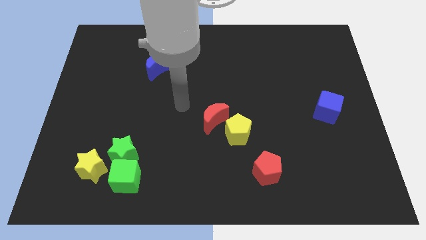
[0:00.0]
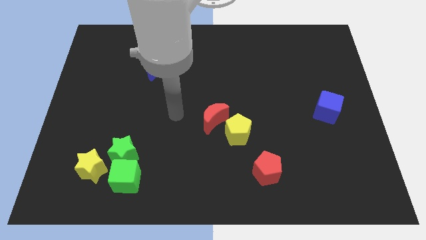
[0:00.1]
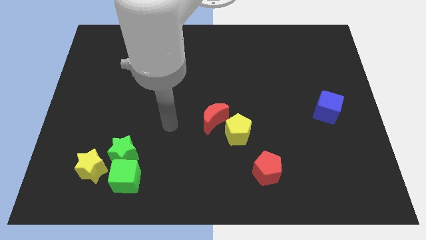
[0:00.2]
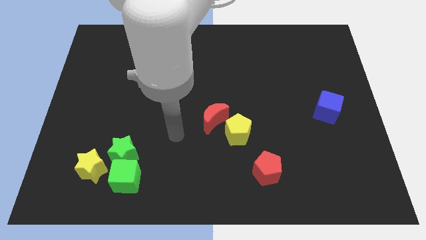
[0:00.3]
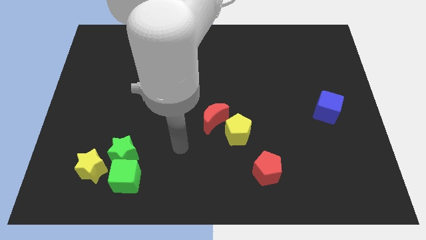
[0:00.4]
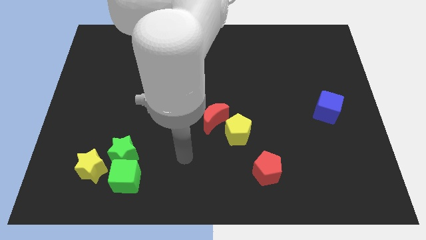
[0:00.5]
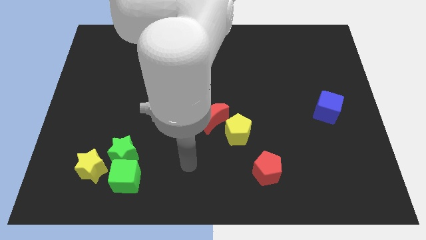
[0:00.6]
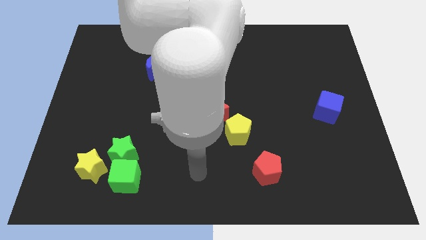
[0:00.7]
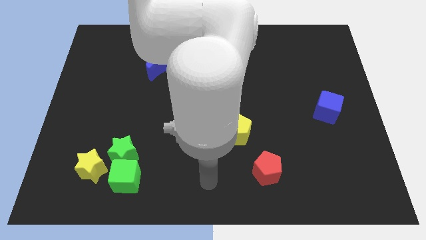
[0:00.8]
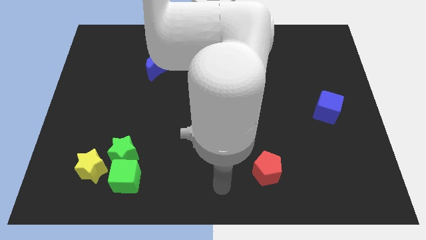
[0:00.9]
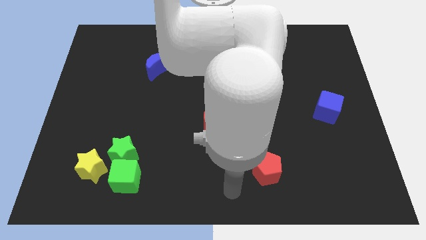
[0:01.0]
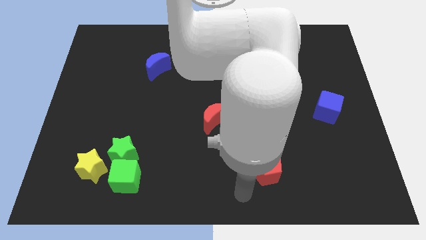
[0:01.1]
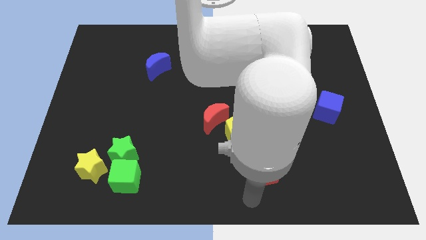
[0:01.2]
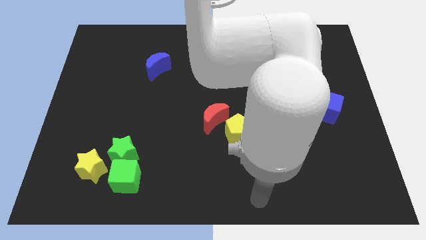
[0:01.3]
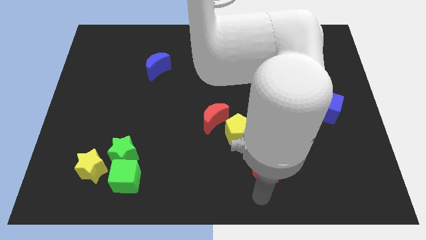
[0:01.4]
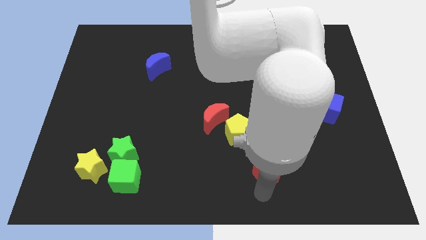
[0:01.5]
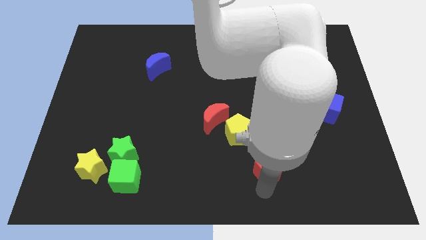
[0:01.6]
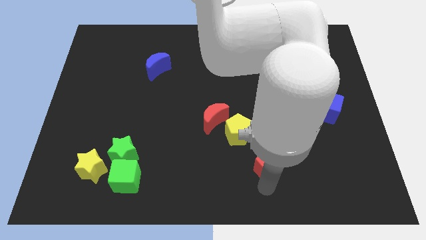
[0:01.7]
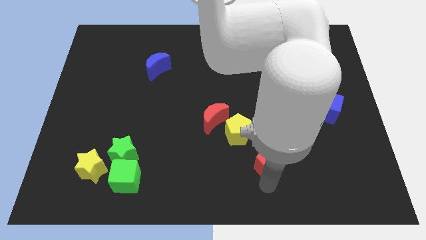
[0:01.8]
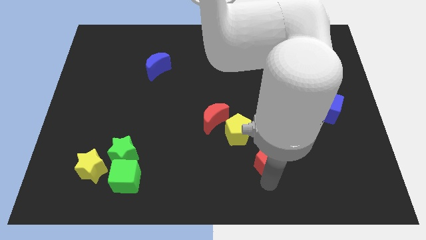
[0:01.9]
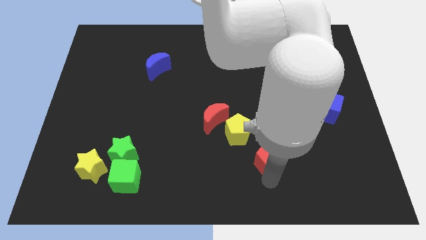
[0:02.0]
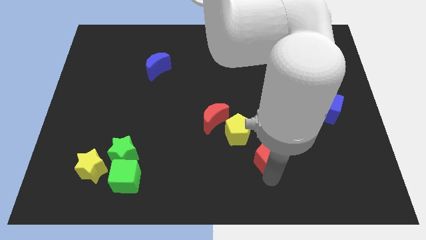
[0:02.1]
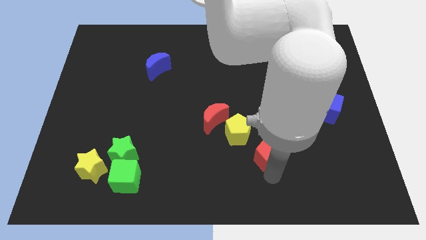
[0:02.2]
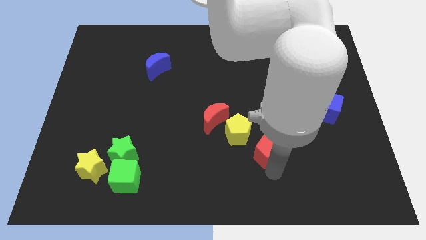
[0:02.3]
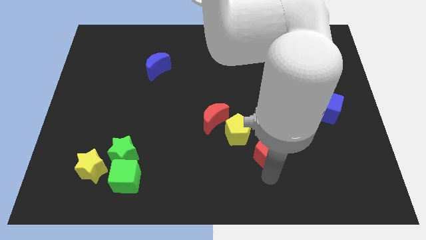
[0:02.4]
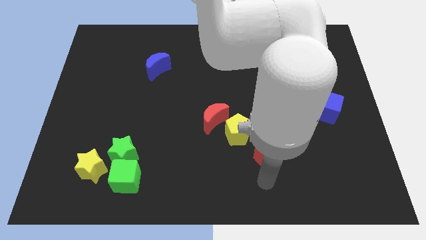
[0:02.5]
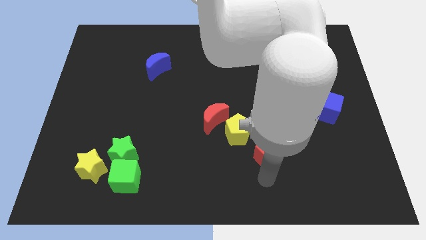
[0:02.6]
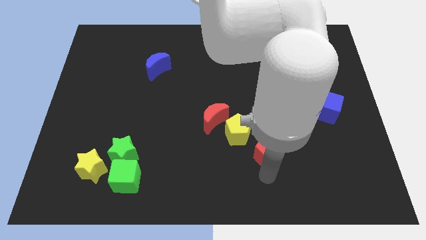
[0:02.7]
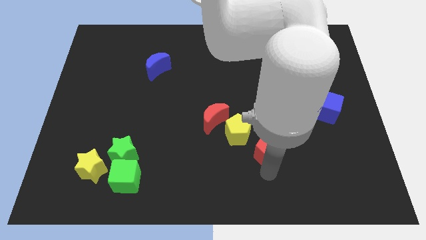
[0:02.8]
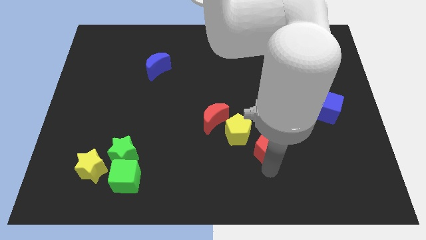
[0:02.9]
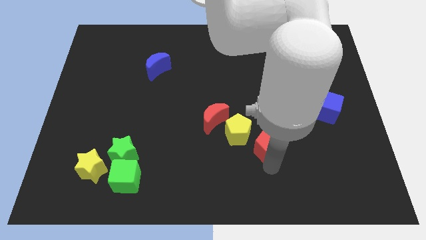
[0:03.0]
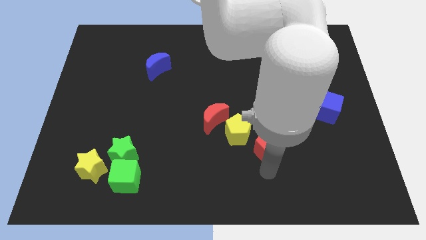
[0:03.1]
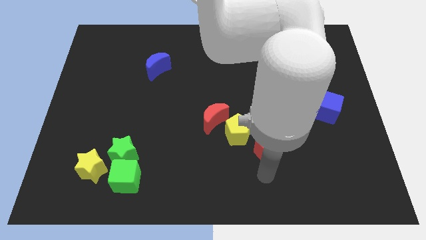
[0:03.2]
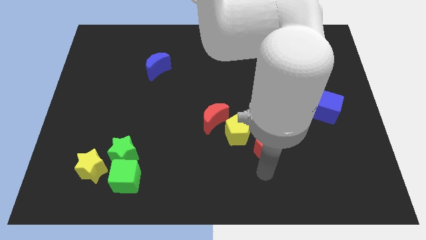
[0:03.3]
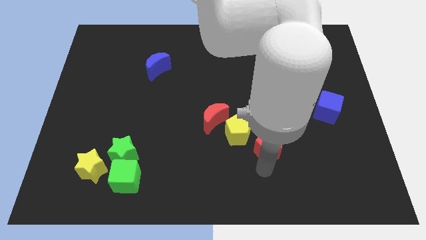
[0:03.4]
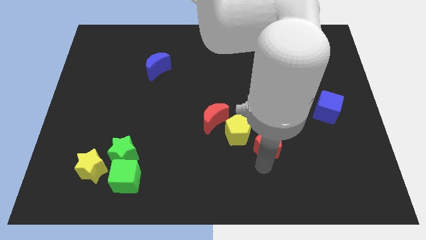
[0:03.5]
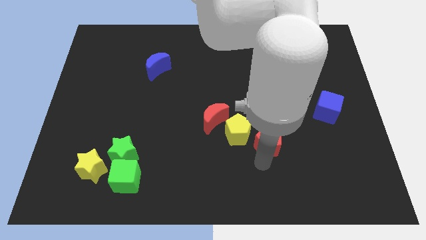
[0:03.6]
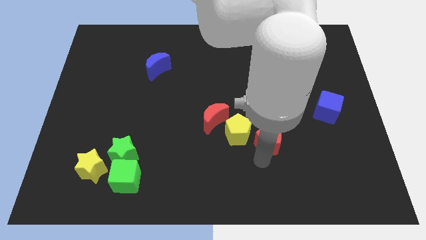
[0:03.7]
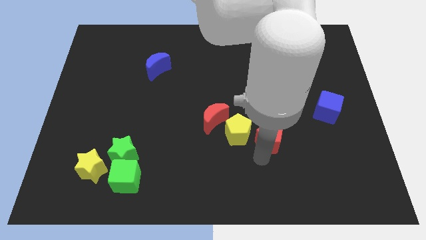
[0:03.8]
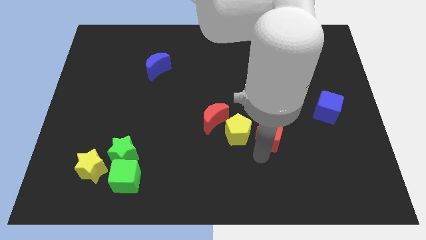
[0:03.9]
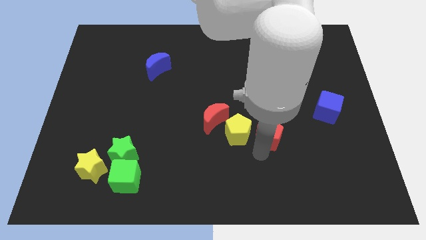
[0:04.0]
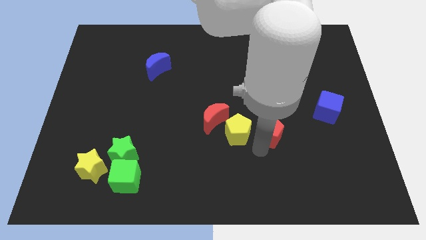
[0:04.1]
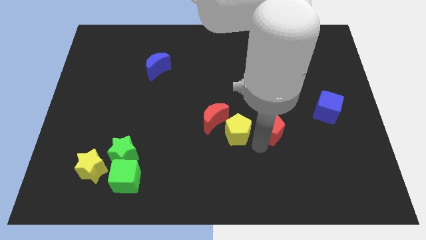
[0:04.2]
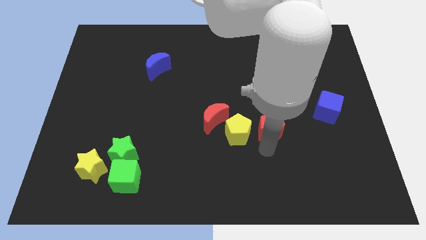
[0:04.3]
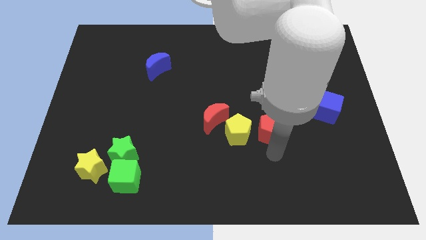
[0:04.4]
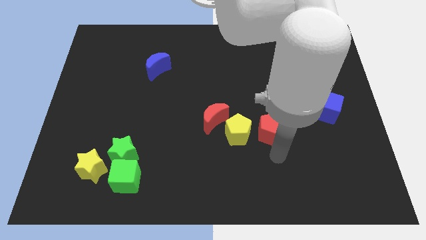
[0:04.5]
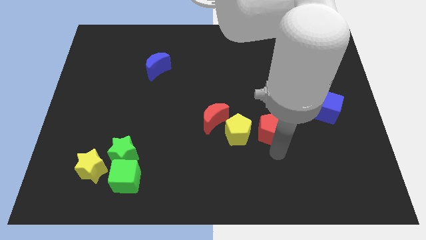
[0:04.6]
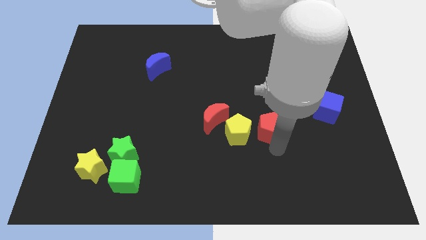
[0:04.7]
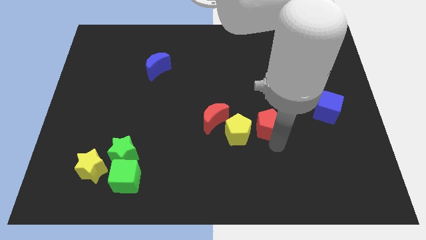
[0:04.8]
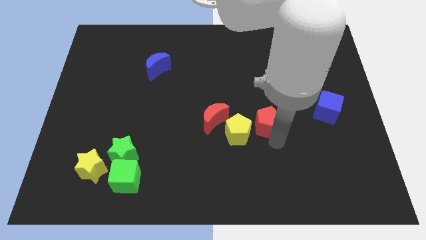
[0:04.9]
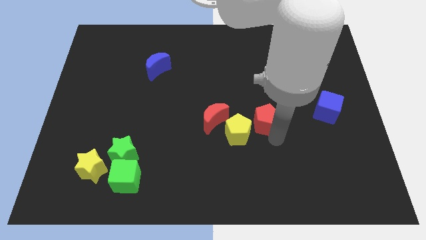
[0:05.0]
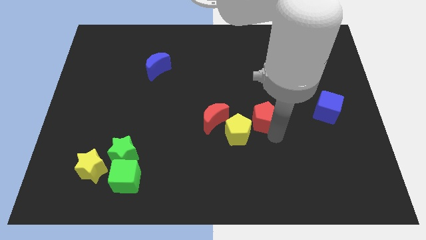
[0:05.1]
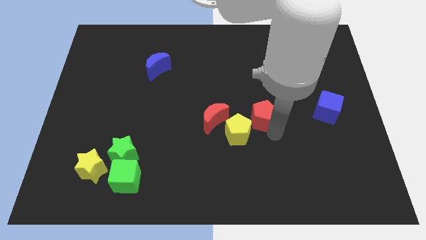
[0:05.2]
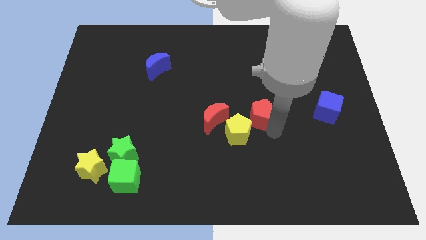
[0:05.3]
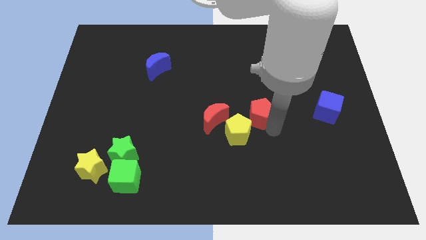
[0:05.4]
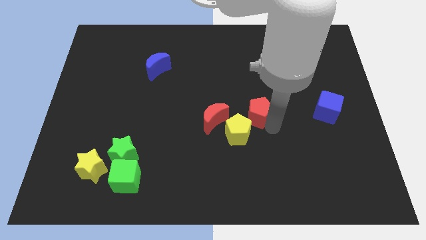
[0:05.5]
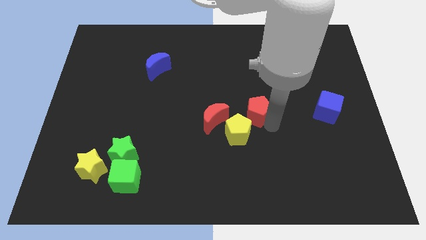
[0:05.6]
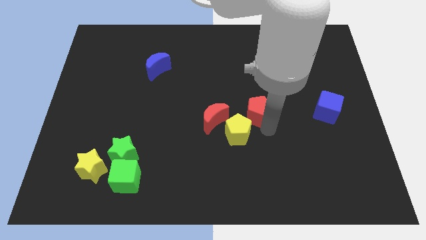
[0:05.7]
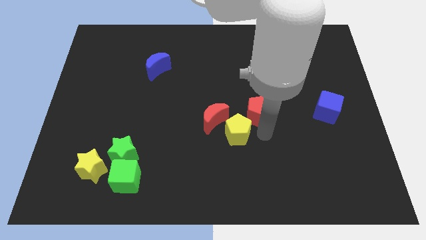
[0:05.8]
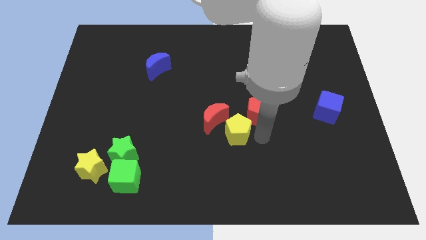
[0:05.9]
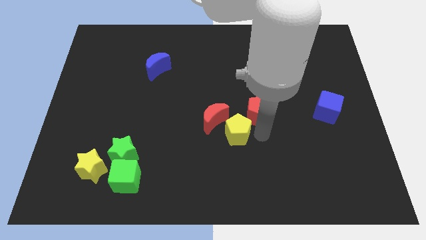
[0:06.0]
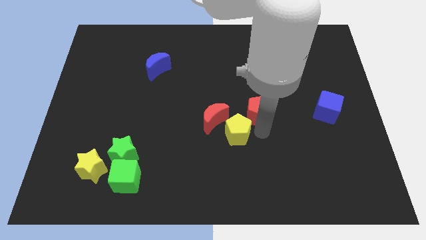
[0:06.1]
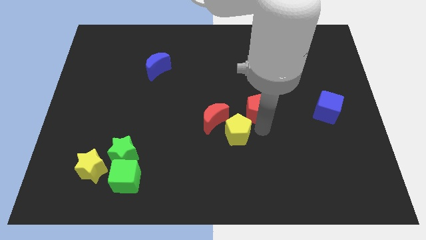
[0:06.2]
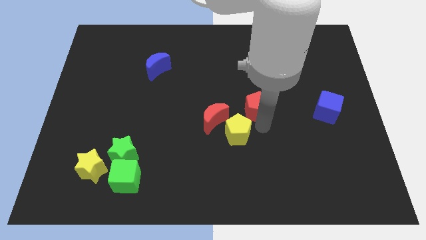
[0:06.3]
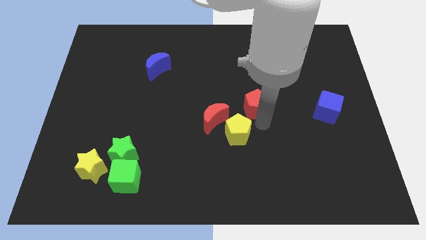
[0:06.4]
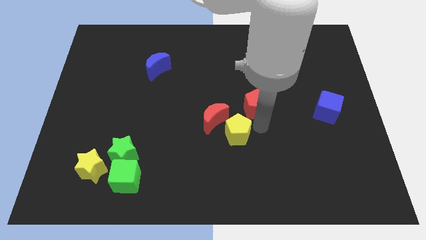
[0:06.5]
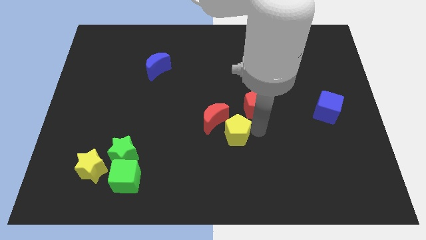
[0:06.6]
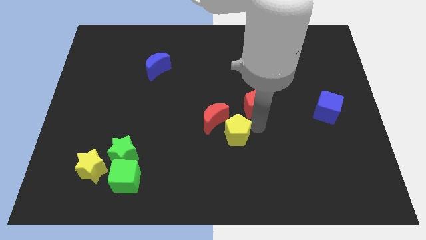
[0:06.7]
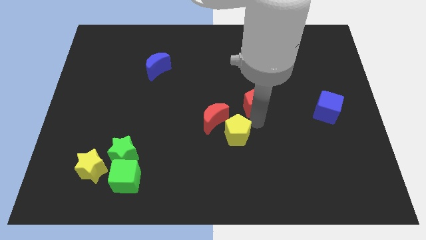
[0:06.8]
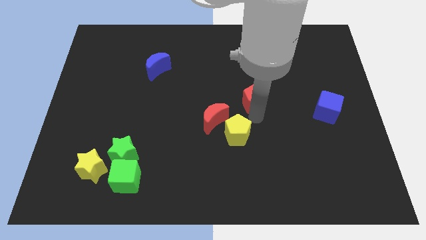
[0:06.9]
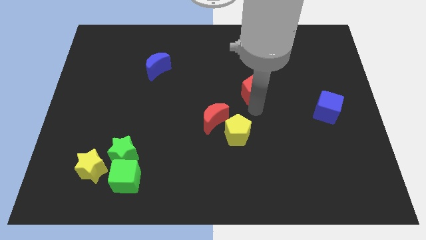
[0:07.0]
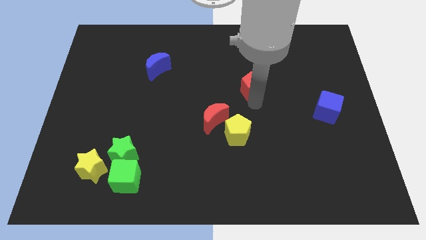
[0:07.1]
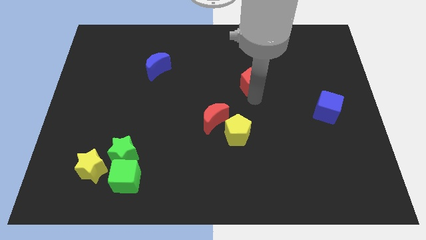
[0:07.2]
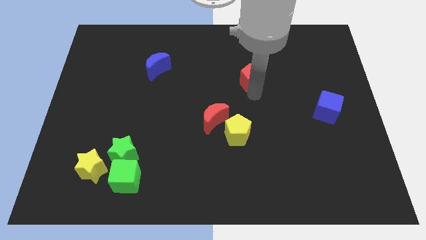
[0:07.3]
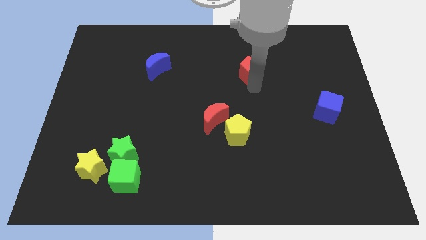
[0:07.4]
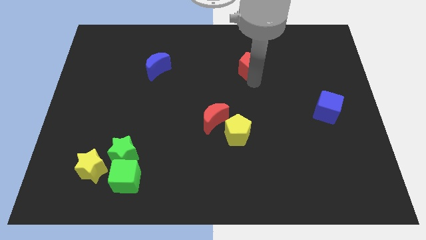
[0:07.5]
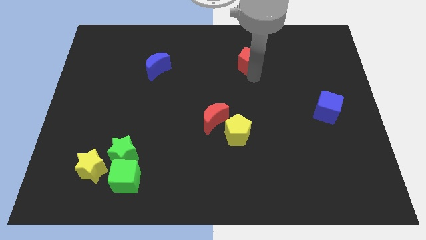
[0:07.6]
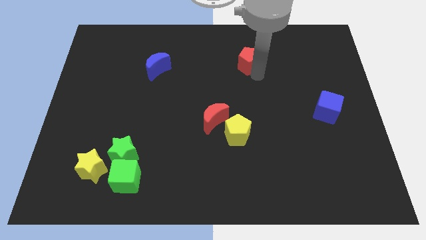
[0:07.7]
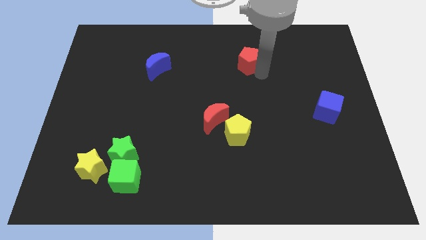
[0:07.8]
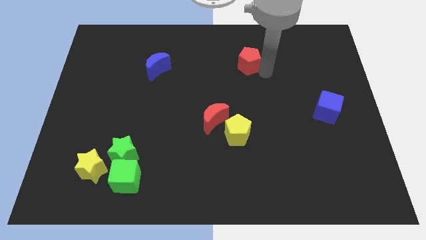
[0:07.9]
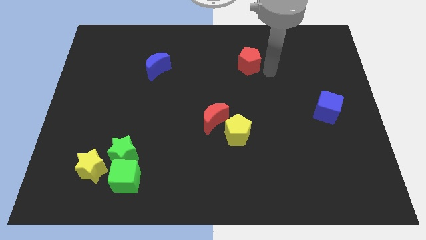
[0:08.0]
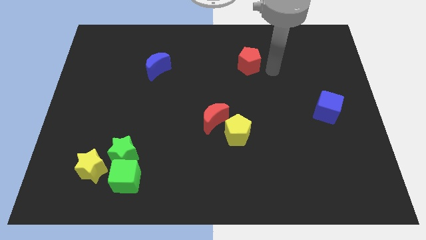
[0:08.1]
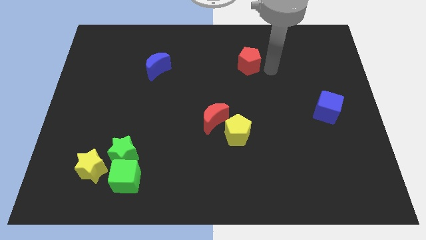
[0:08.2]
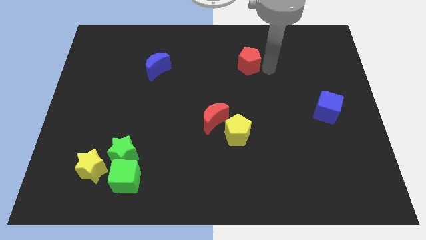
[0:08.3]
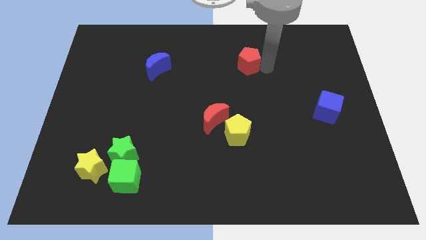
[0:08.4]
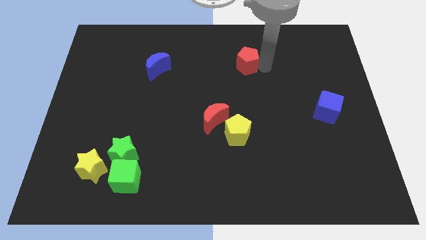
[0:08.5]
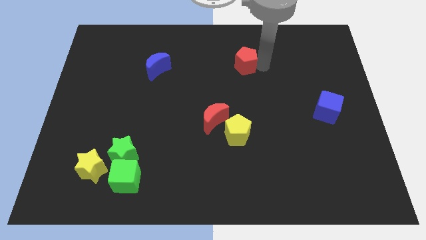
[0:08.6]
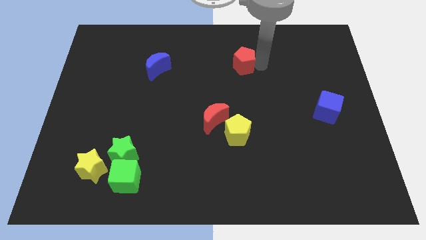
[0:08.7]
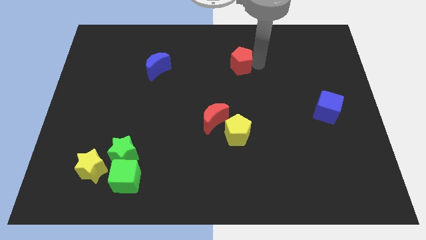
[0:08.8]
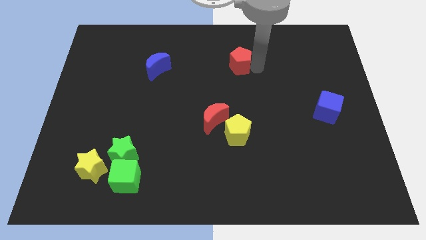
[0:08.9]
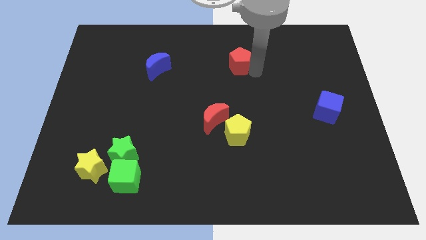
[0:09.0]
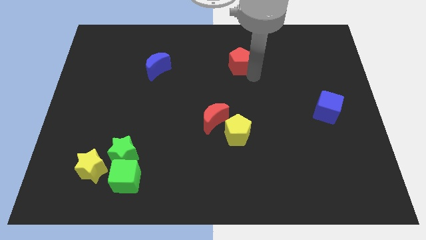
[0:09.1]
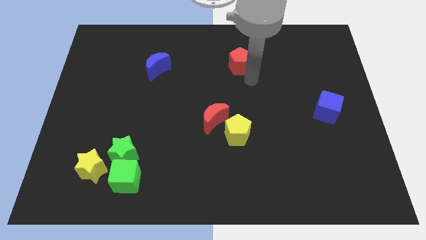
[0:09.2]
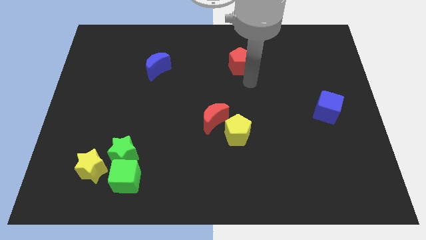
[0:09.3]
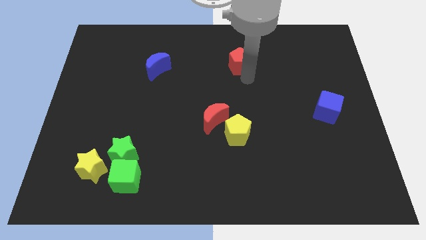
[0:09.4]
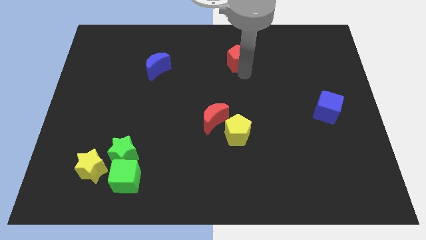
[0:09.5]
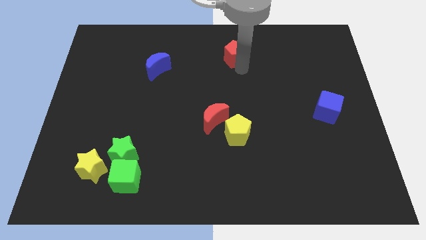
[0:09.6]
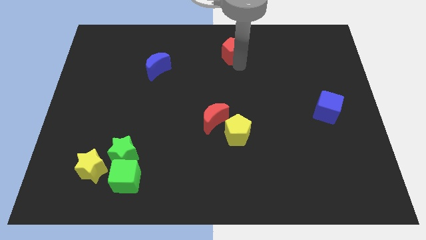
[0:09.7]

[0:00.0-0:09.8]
move the red pentagon to the towards your base
